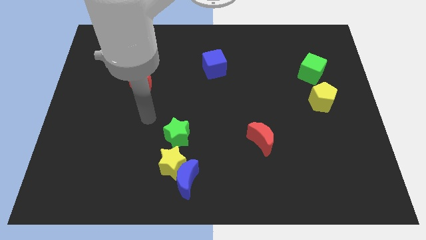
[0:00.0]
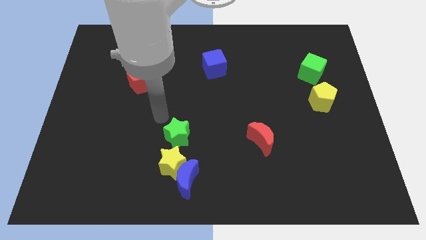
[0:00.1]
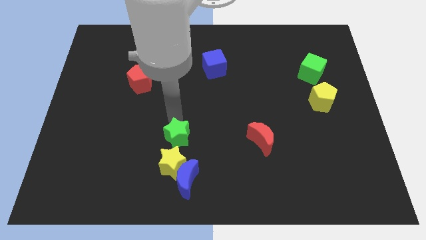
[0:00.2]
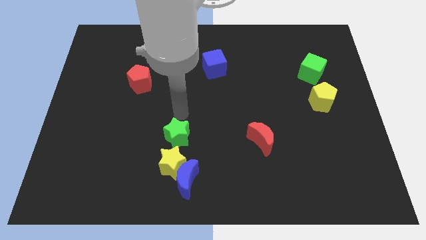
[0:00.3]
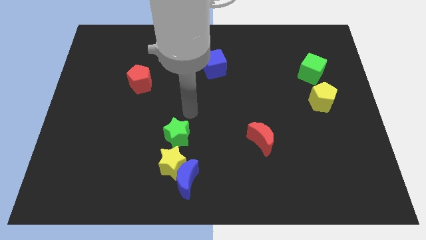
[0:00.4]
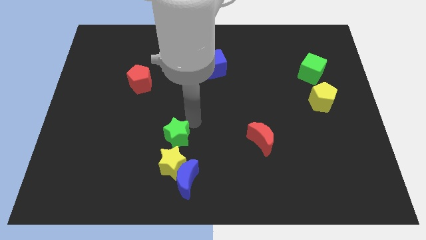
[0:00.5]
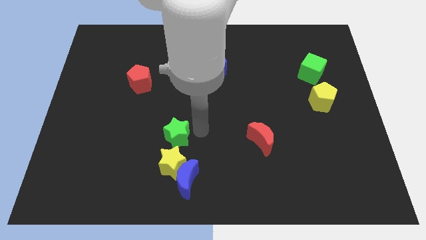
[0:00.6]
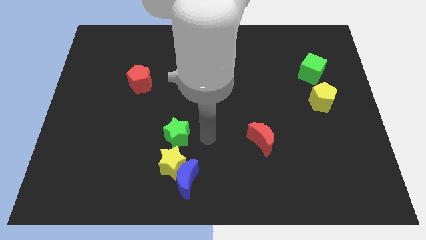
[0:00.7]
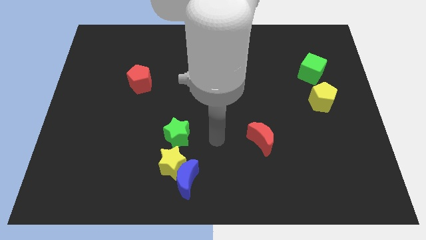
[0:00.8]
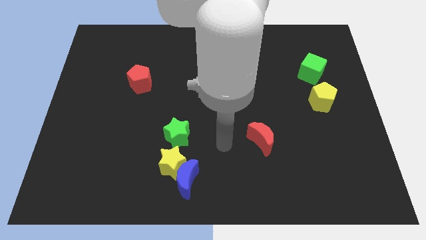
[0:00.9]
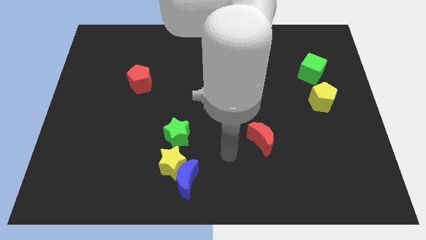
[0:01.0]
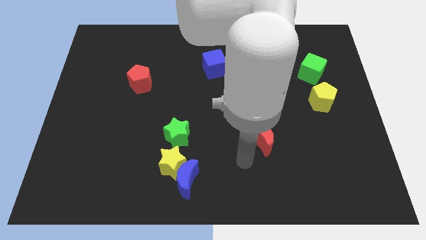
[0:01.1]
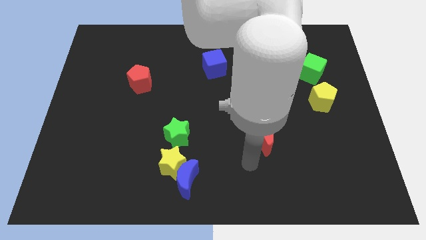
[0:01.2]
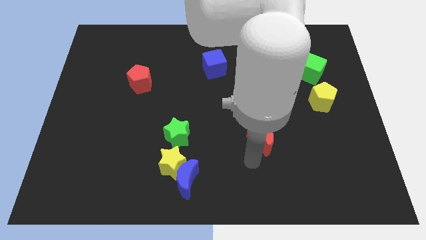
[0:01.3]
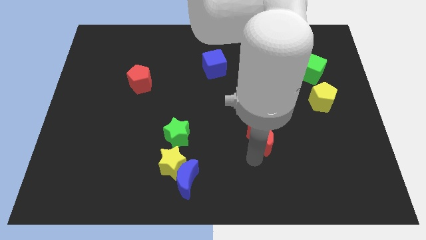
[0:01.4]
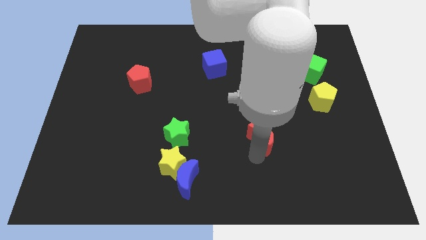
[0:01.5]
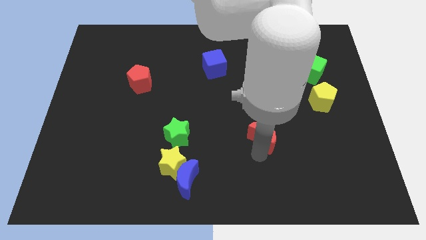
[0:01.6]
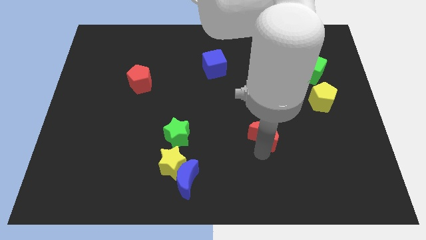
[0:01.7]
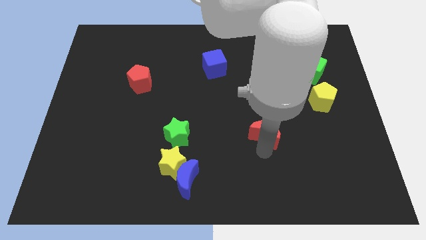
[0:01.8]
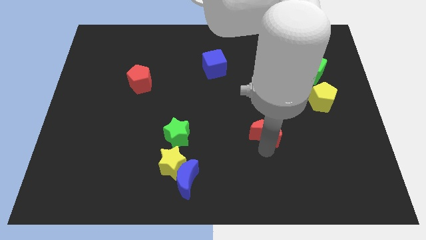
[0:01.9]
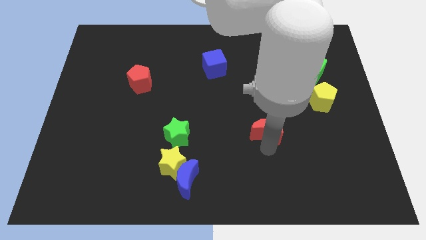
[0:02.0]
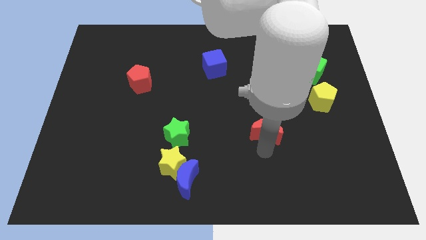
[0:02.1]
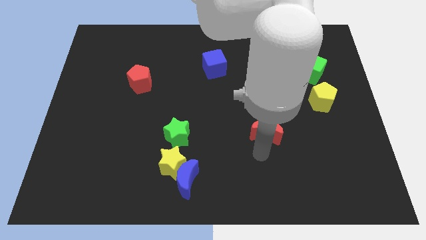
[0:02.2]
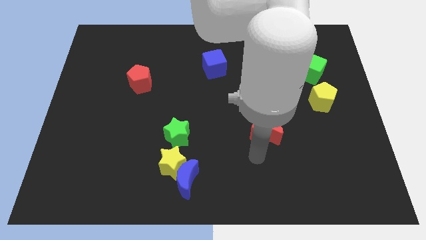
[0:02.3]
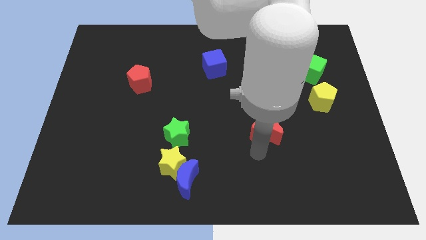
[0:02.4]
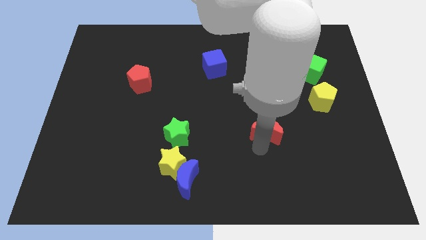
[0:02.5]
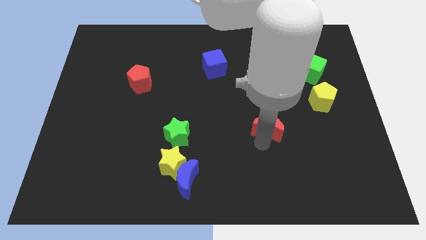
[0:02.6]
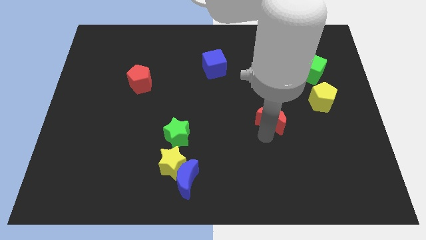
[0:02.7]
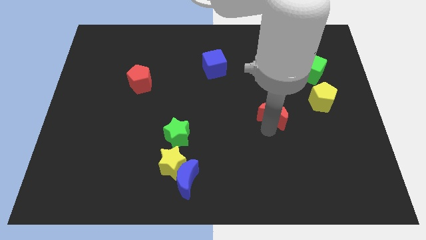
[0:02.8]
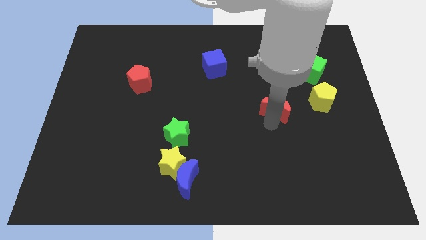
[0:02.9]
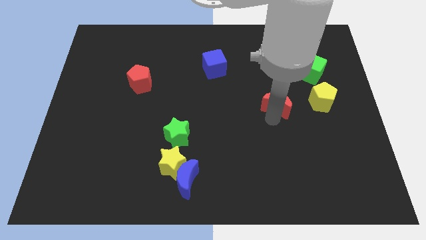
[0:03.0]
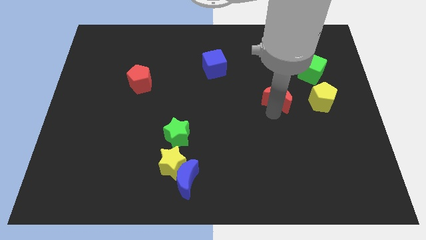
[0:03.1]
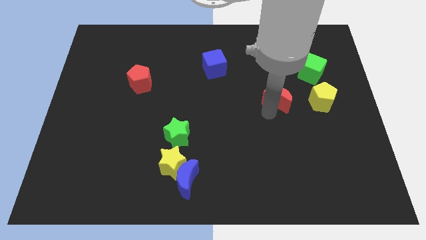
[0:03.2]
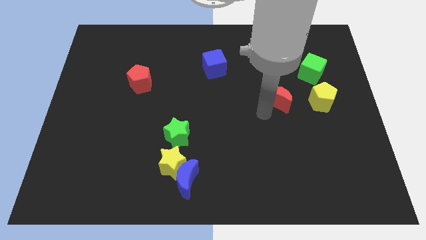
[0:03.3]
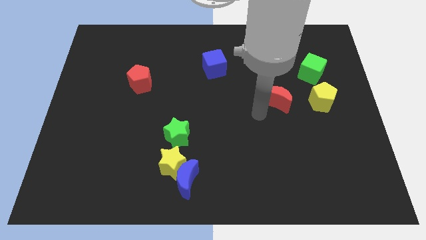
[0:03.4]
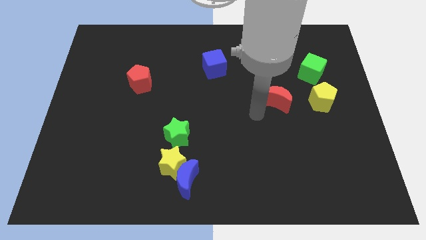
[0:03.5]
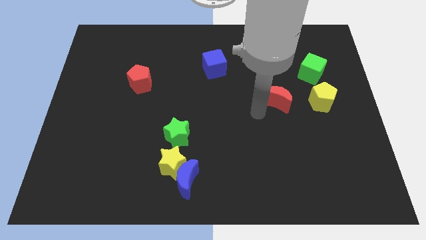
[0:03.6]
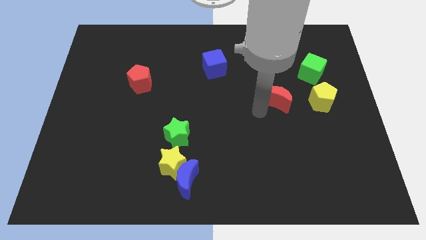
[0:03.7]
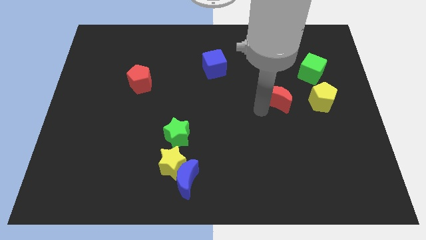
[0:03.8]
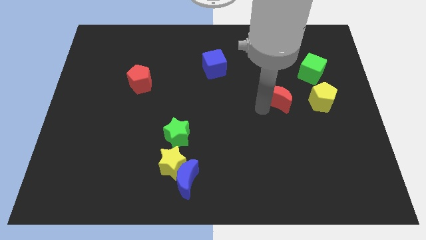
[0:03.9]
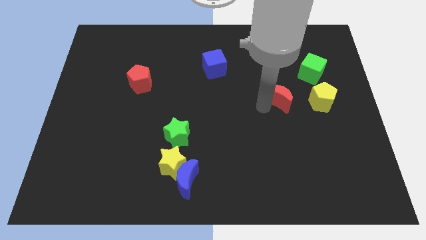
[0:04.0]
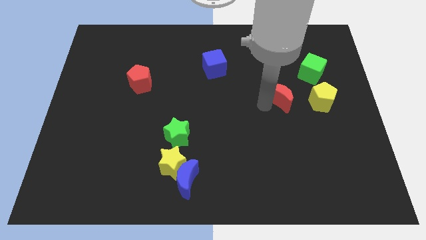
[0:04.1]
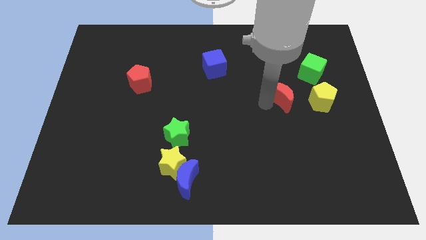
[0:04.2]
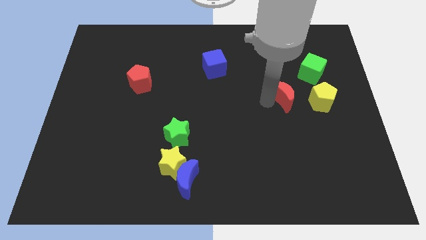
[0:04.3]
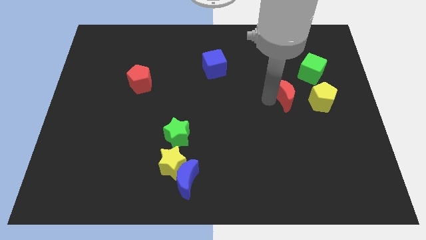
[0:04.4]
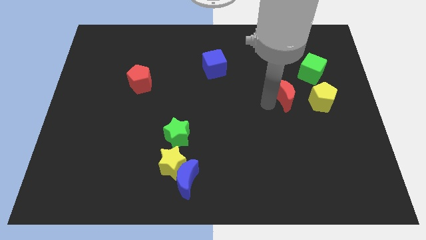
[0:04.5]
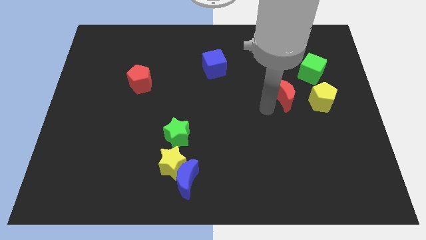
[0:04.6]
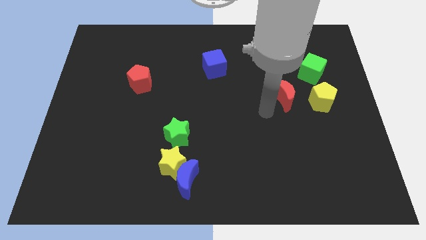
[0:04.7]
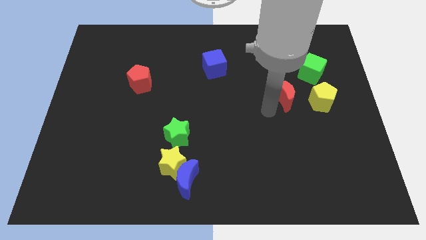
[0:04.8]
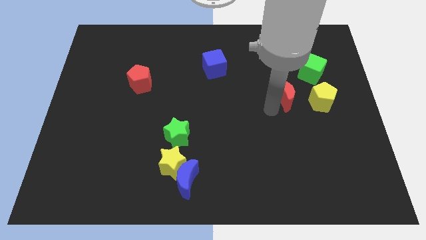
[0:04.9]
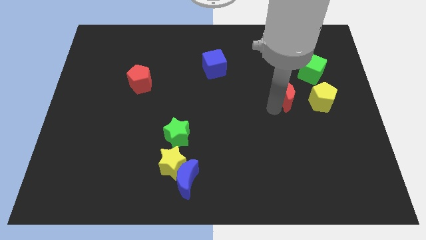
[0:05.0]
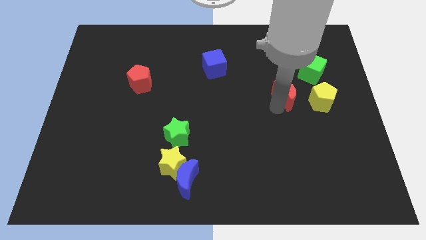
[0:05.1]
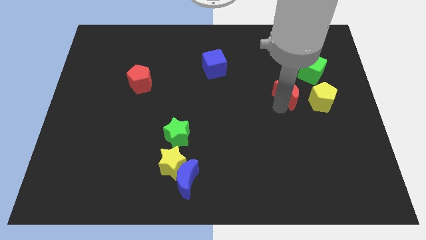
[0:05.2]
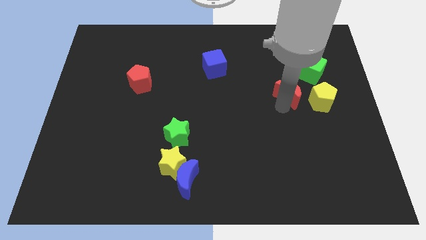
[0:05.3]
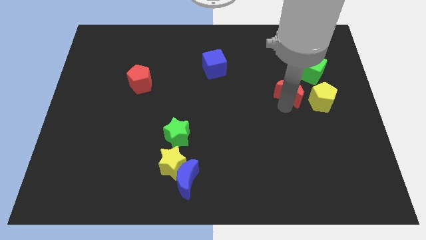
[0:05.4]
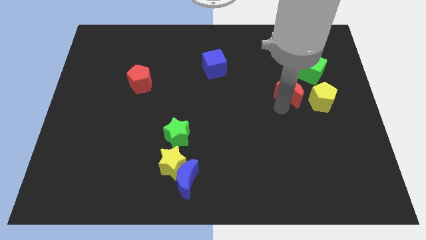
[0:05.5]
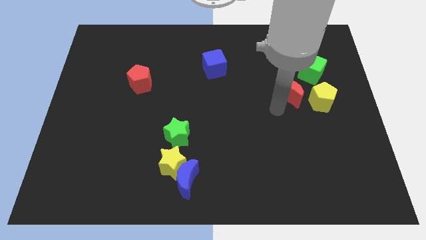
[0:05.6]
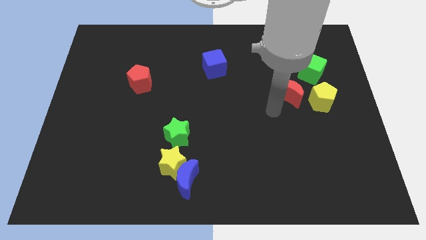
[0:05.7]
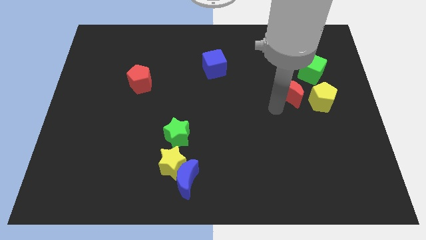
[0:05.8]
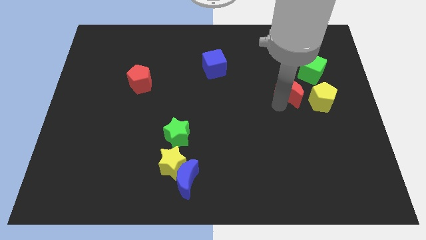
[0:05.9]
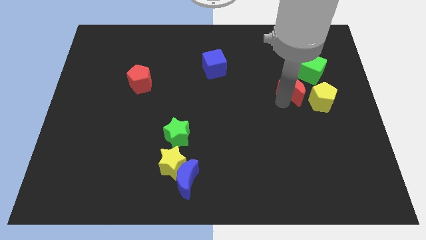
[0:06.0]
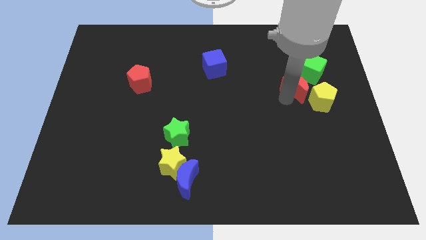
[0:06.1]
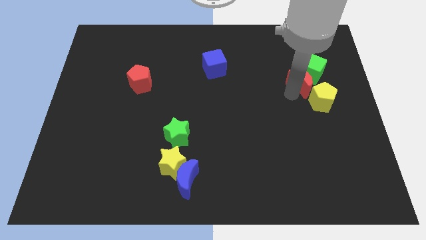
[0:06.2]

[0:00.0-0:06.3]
move the red moon to the green cube
